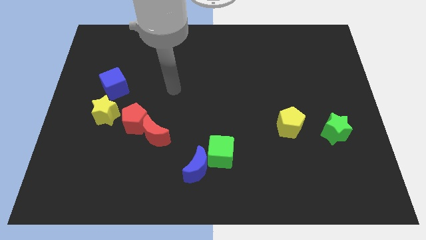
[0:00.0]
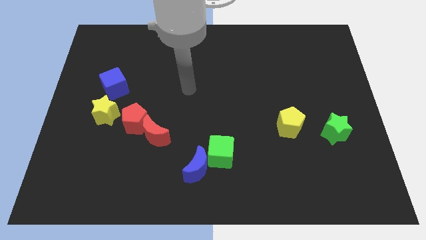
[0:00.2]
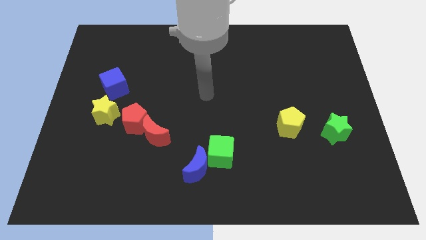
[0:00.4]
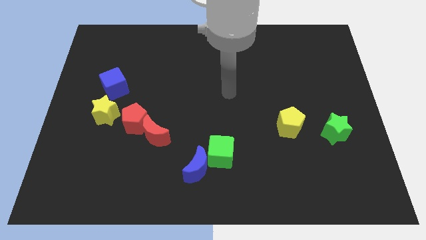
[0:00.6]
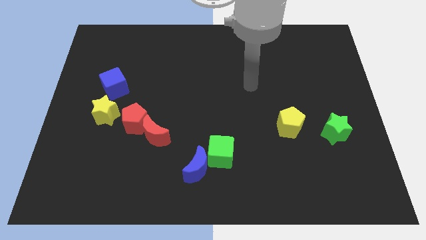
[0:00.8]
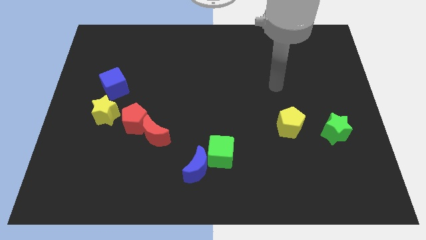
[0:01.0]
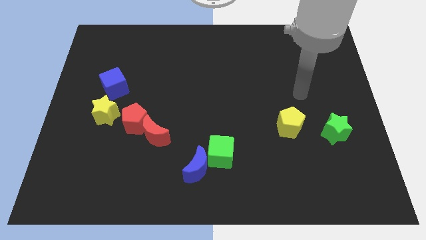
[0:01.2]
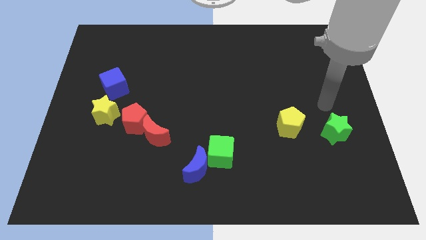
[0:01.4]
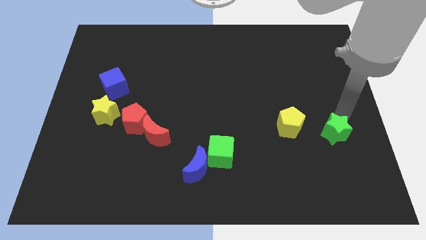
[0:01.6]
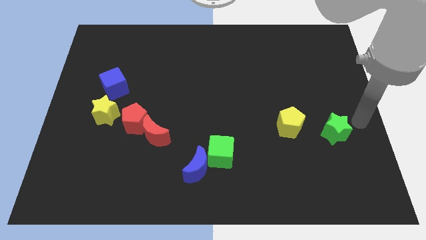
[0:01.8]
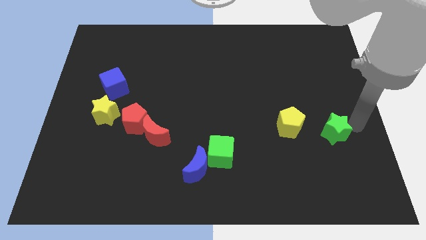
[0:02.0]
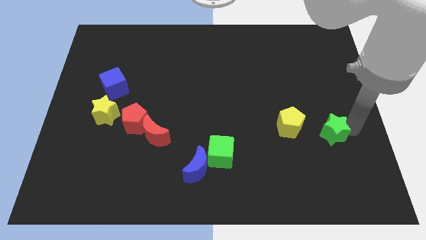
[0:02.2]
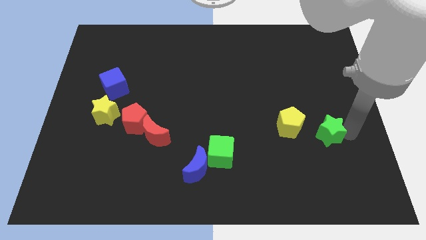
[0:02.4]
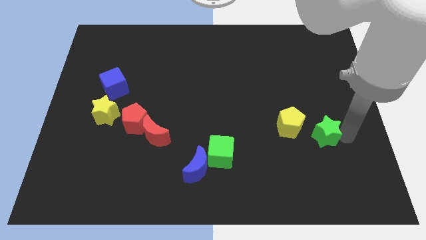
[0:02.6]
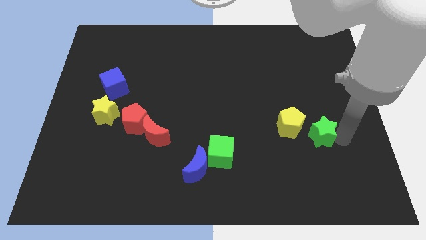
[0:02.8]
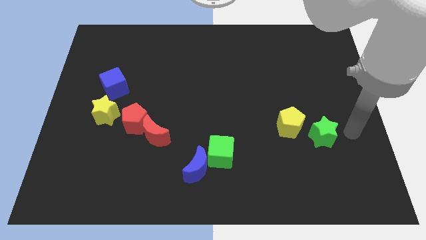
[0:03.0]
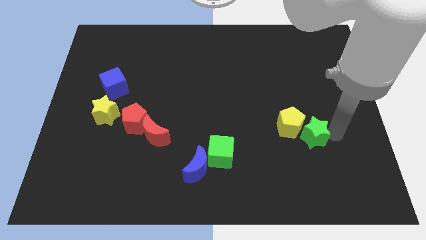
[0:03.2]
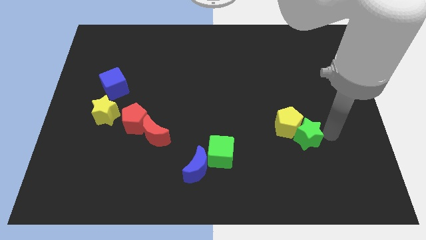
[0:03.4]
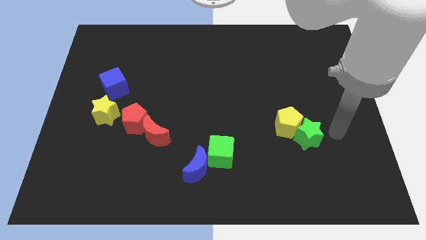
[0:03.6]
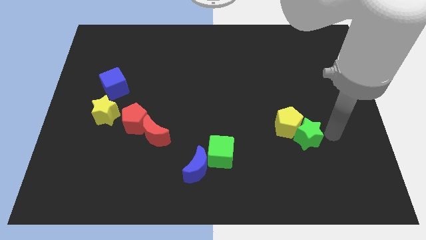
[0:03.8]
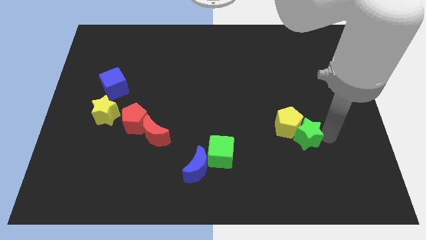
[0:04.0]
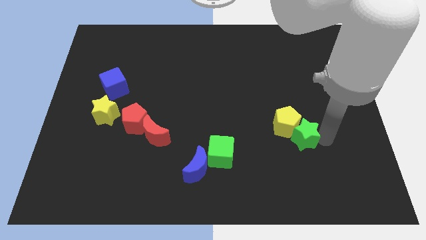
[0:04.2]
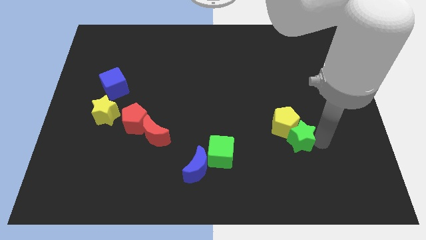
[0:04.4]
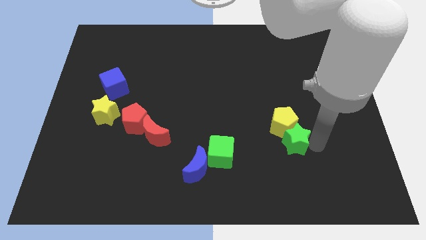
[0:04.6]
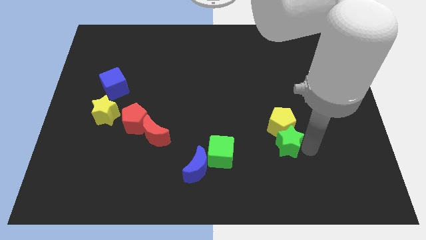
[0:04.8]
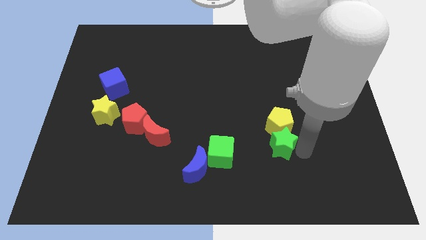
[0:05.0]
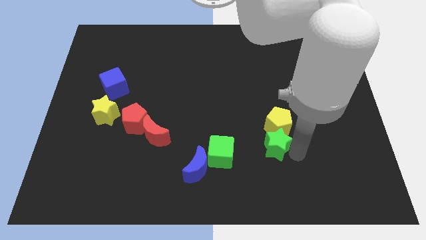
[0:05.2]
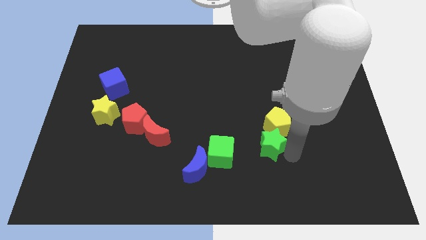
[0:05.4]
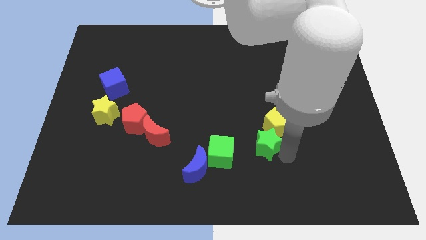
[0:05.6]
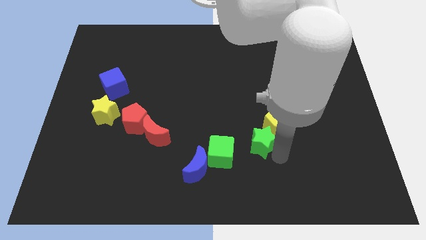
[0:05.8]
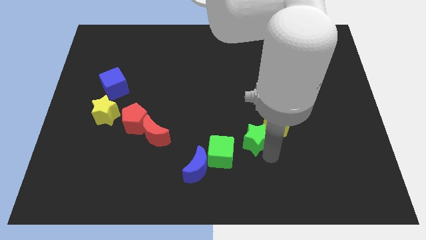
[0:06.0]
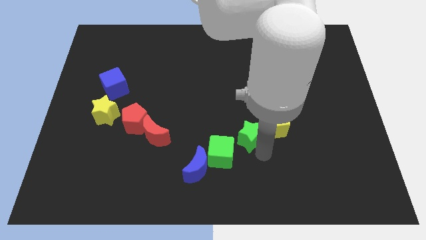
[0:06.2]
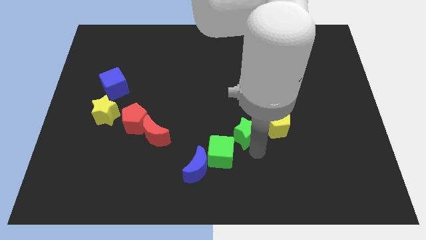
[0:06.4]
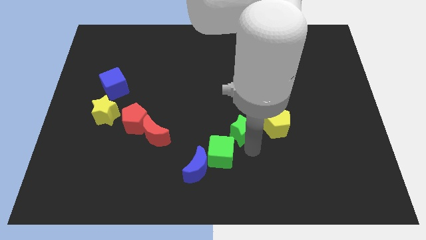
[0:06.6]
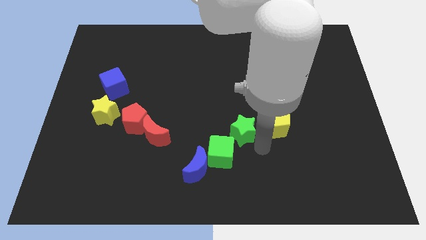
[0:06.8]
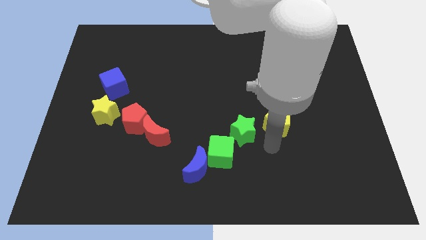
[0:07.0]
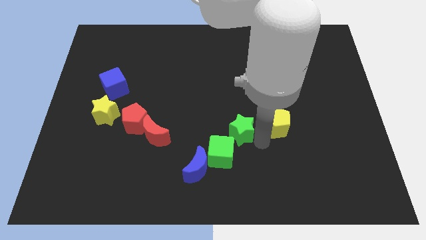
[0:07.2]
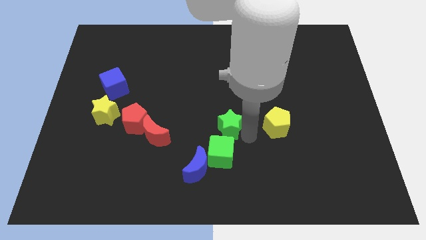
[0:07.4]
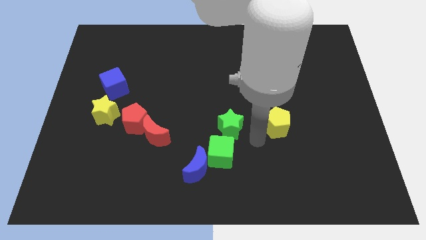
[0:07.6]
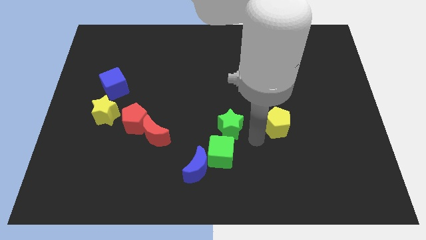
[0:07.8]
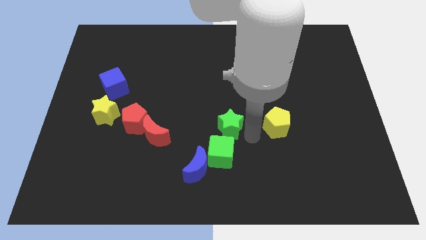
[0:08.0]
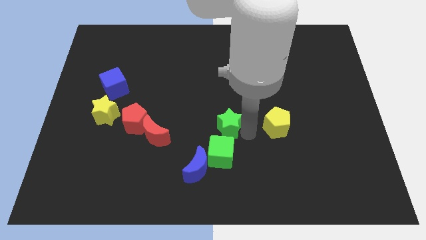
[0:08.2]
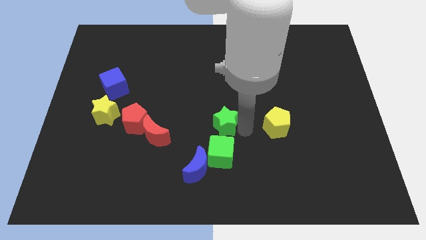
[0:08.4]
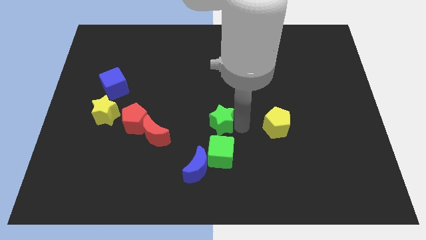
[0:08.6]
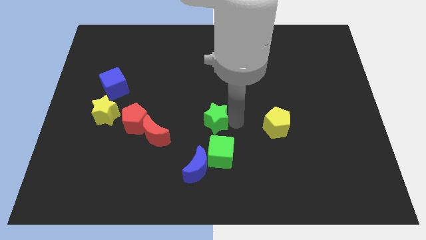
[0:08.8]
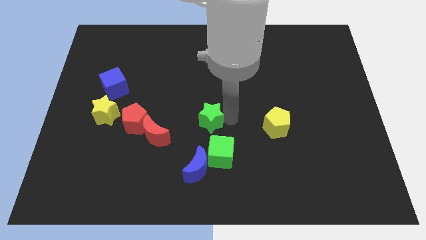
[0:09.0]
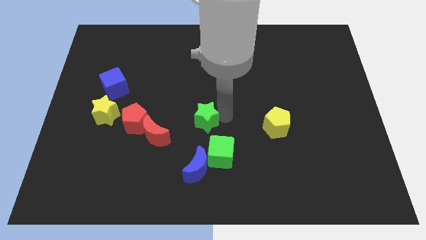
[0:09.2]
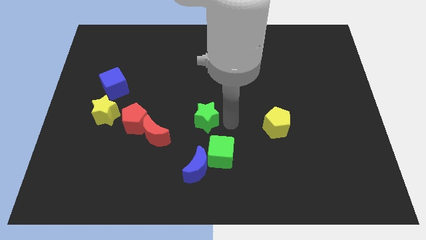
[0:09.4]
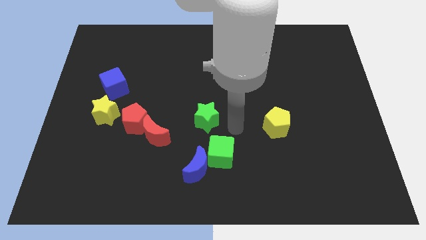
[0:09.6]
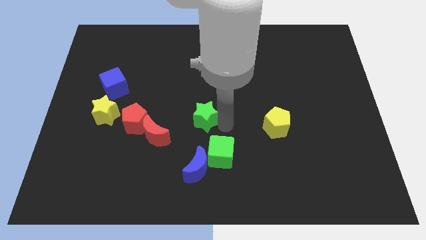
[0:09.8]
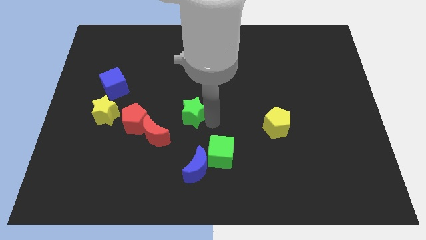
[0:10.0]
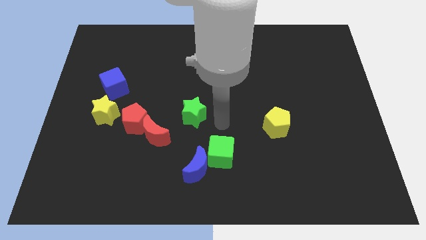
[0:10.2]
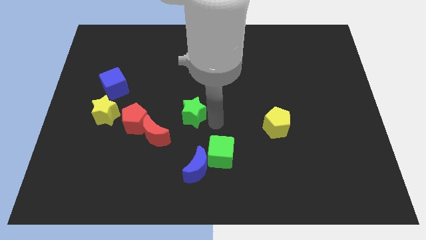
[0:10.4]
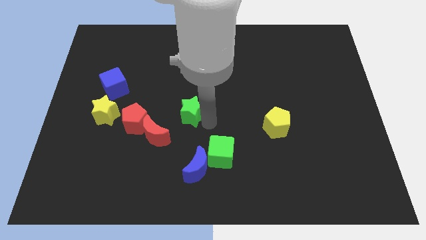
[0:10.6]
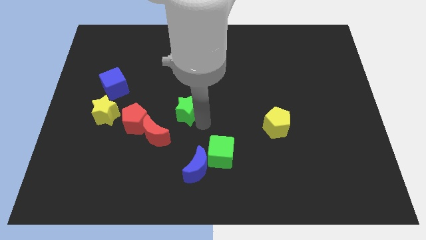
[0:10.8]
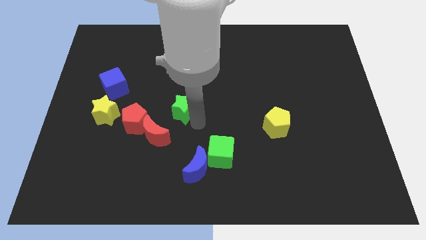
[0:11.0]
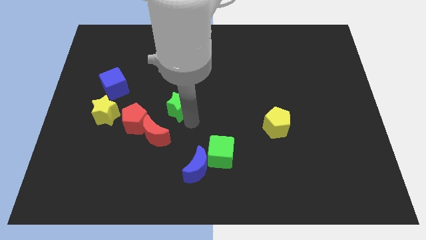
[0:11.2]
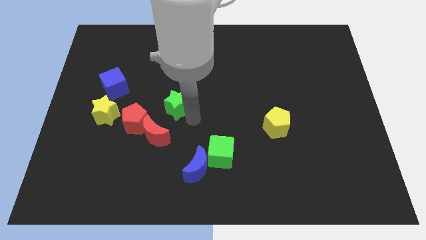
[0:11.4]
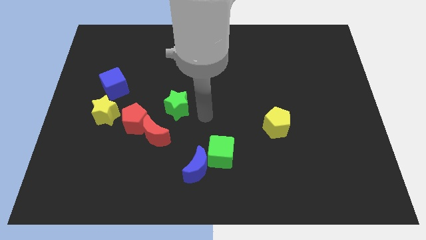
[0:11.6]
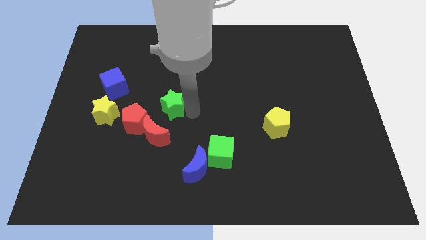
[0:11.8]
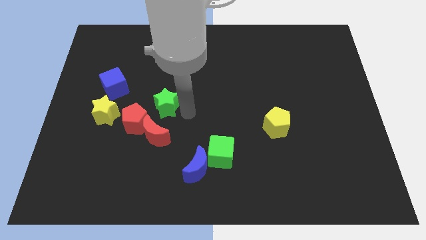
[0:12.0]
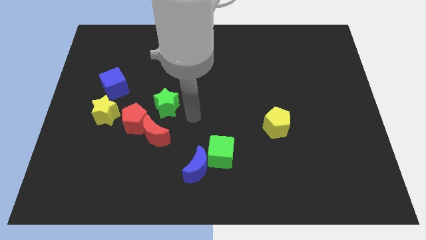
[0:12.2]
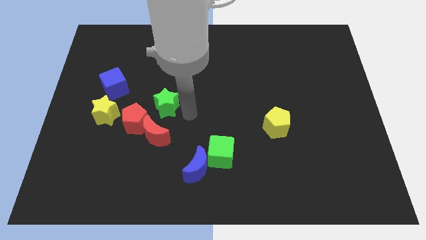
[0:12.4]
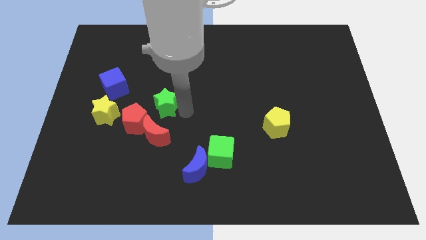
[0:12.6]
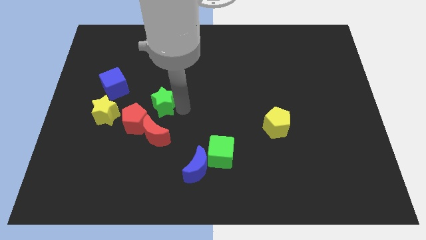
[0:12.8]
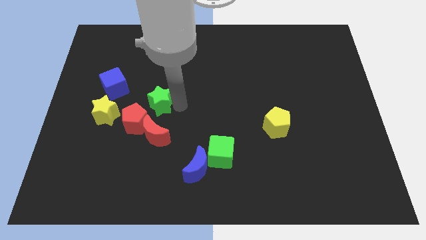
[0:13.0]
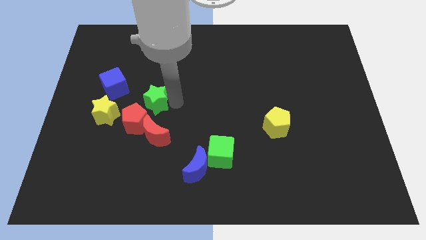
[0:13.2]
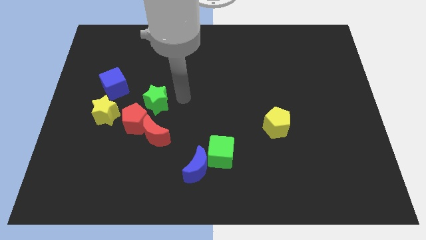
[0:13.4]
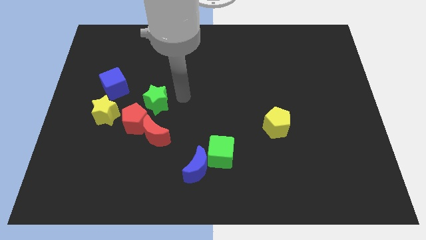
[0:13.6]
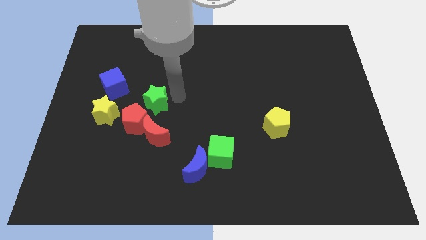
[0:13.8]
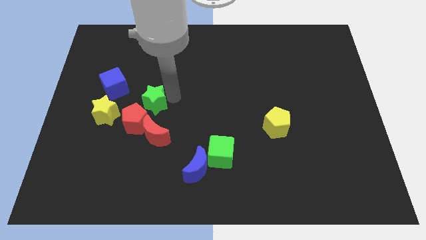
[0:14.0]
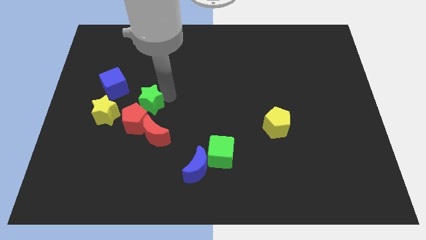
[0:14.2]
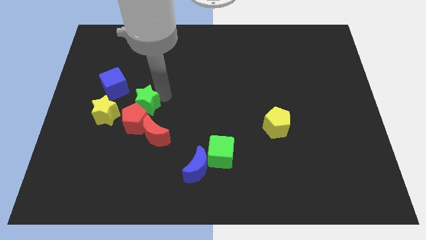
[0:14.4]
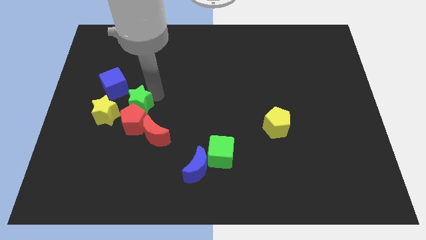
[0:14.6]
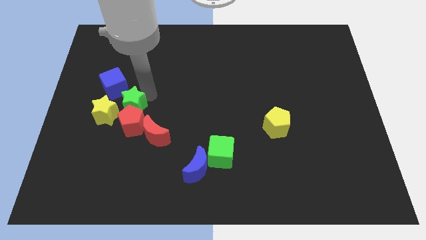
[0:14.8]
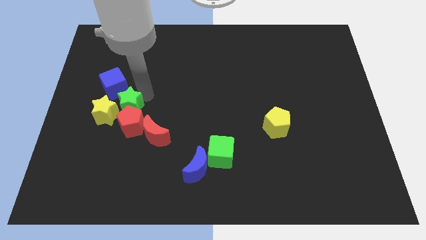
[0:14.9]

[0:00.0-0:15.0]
push the green star to the yellow star
